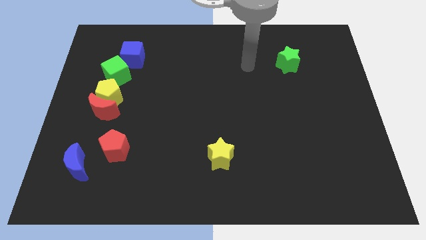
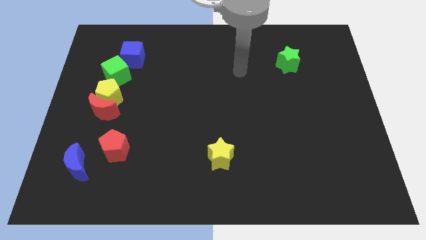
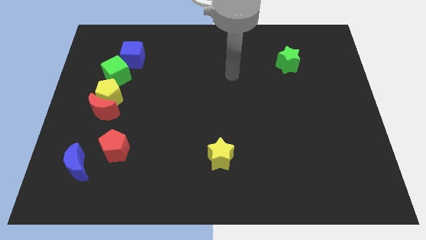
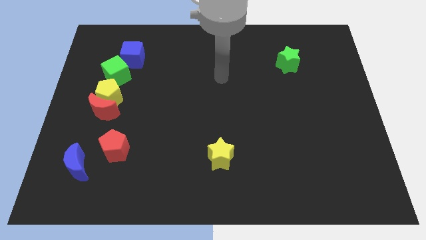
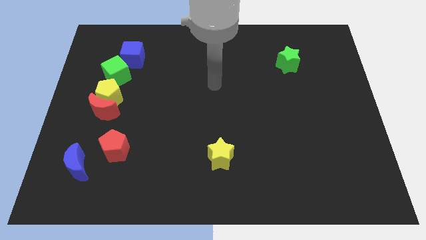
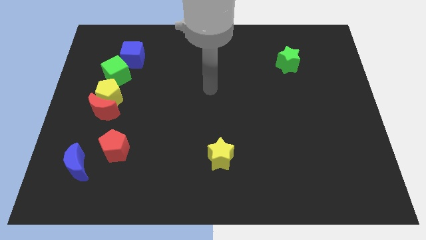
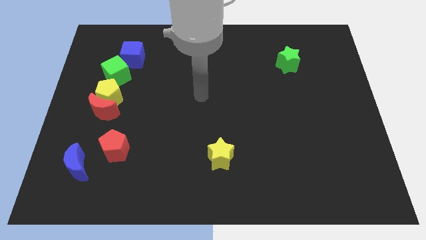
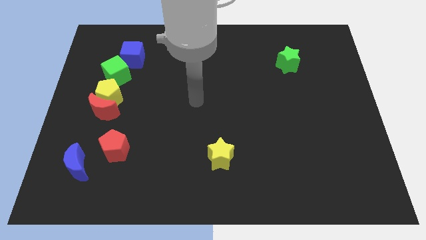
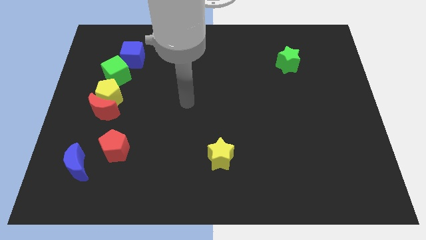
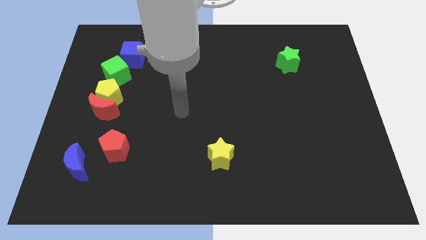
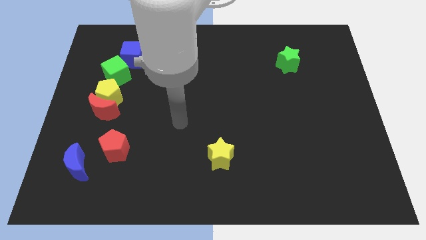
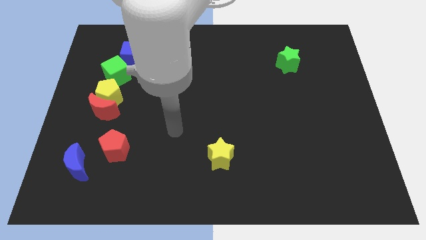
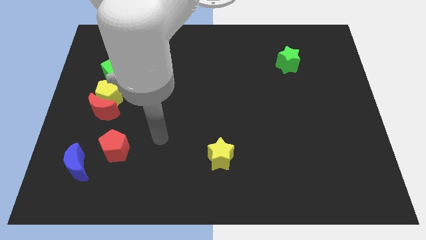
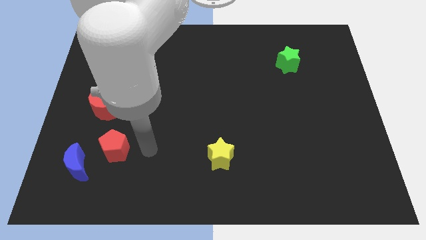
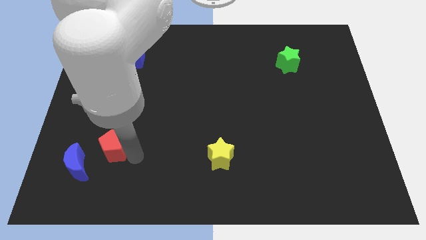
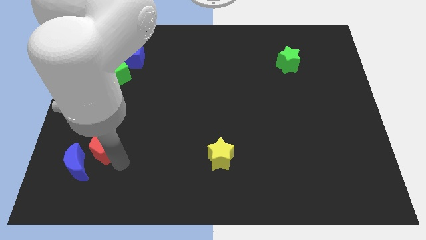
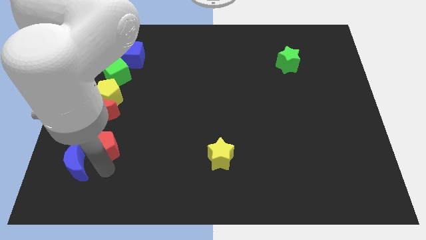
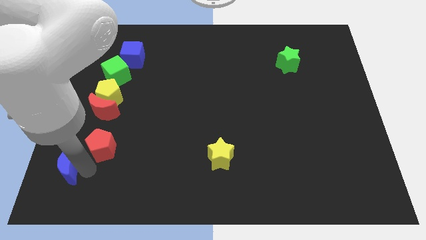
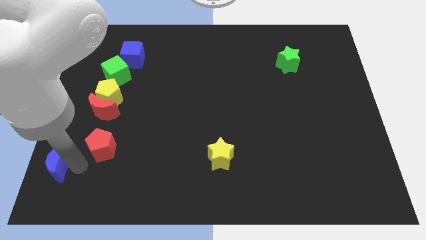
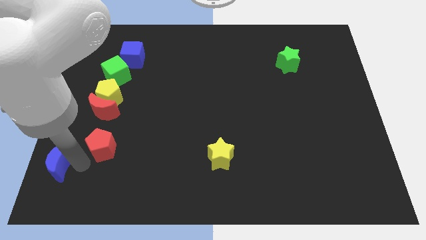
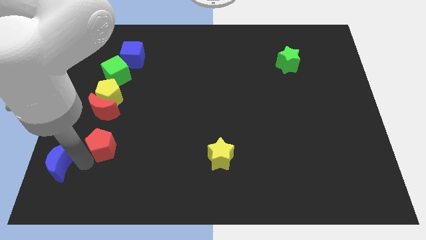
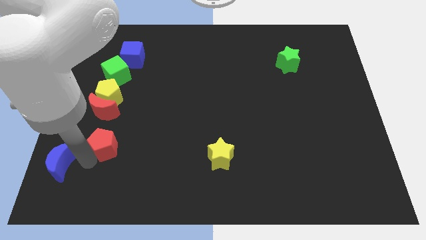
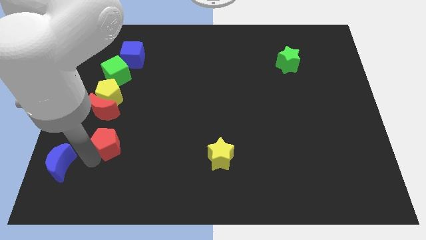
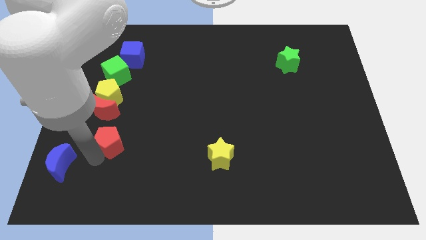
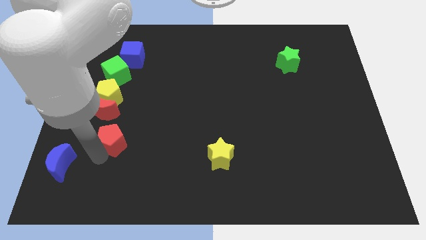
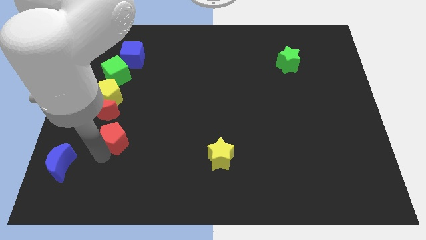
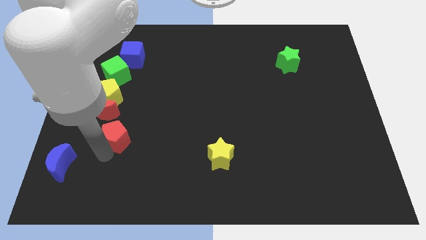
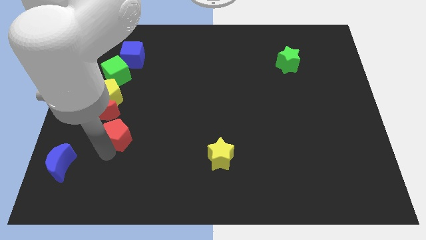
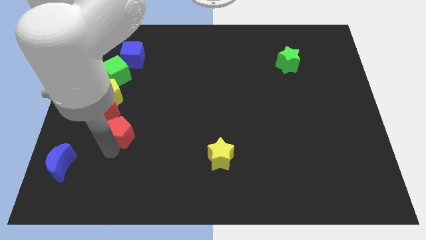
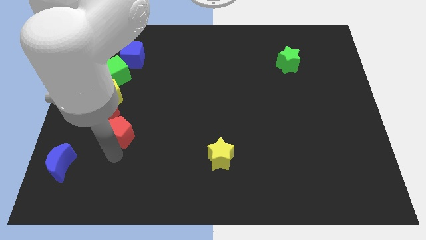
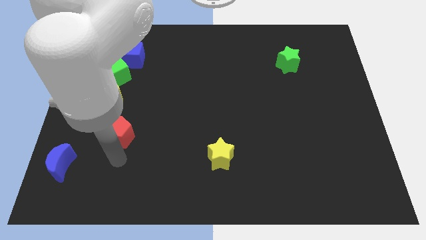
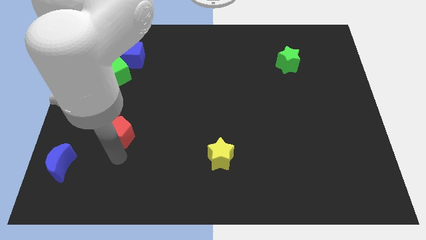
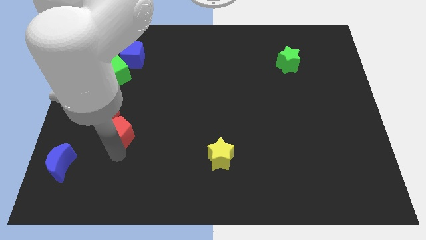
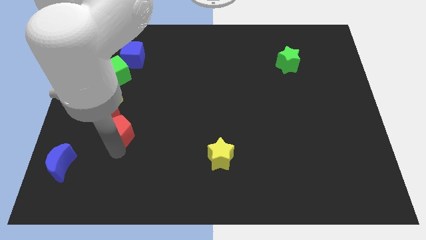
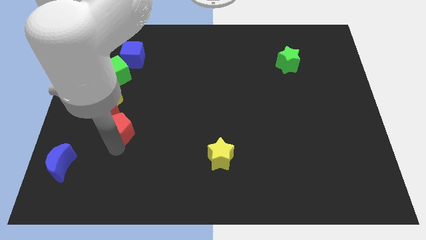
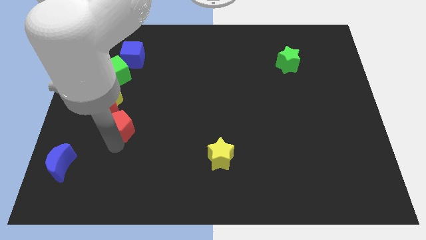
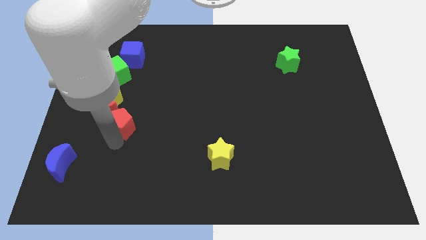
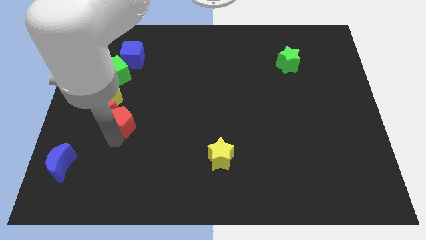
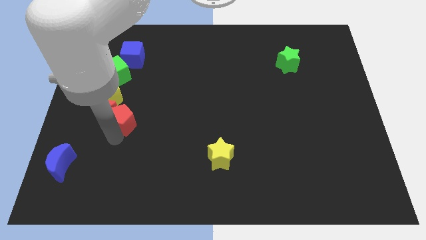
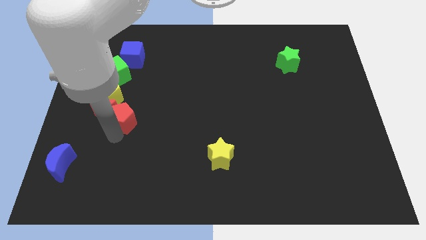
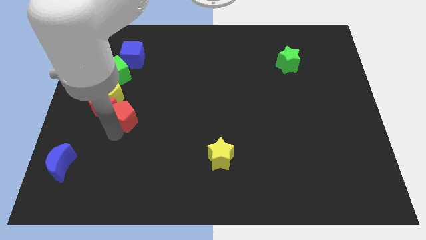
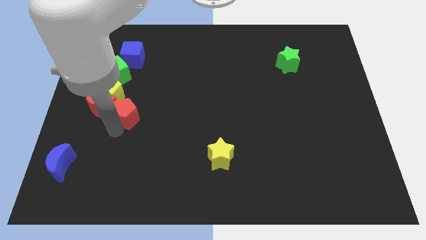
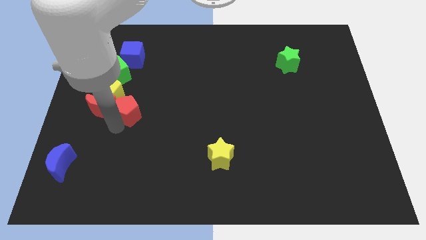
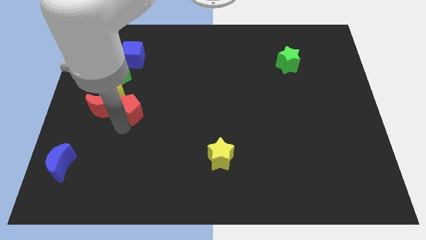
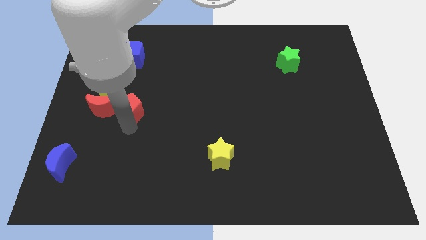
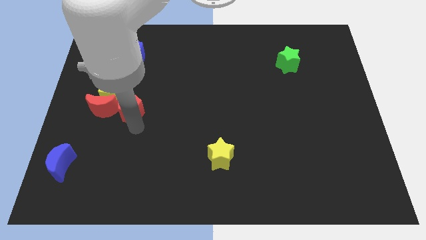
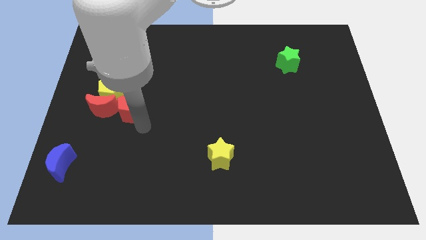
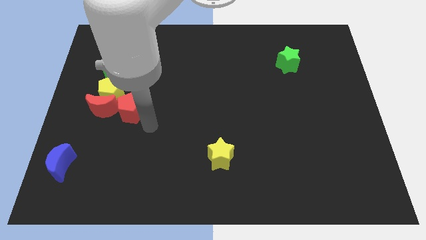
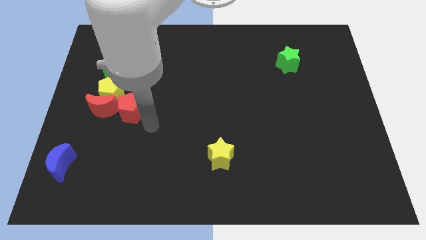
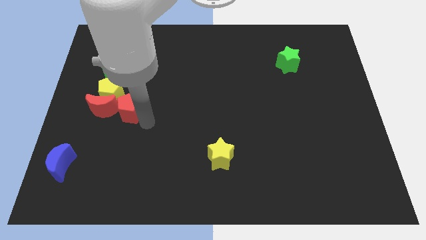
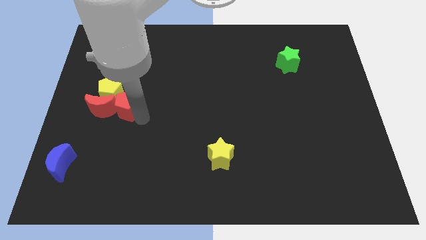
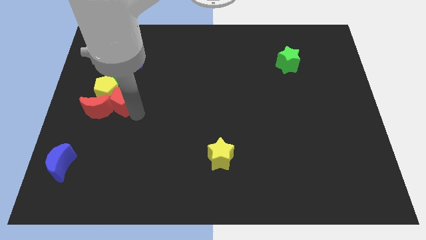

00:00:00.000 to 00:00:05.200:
move the red pentagon close to the yellow pentagon
